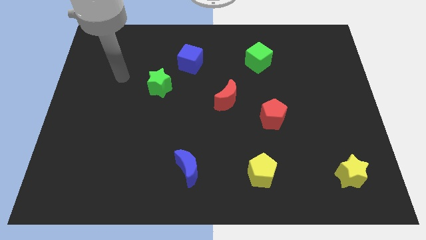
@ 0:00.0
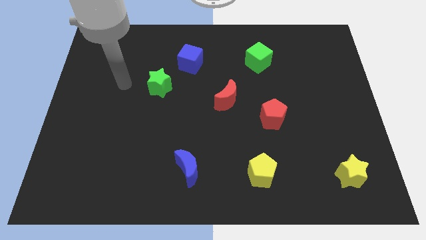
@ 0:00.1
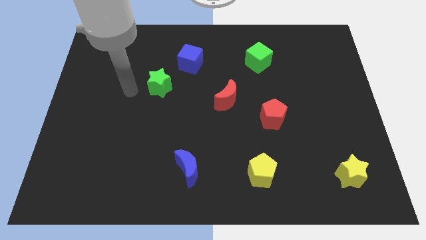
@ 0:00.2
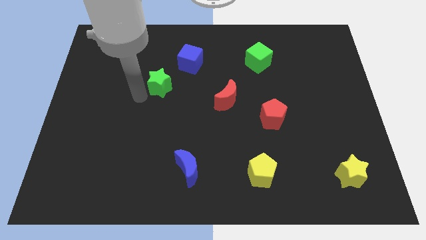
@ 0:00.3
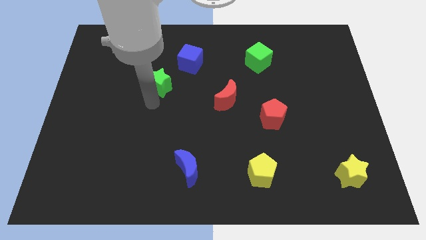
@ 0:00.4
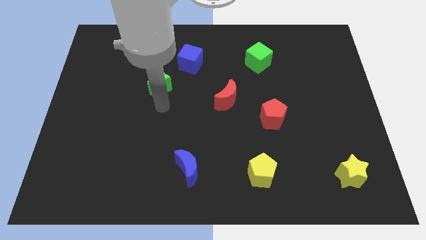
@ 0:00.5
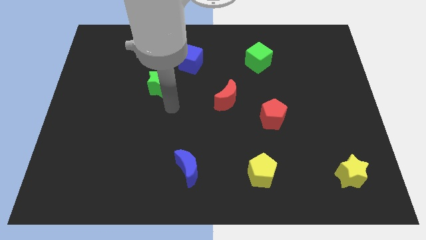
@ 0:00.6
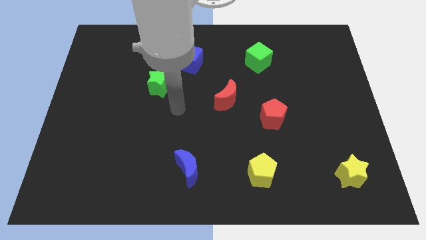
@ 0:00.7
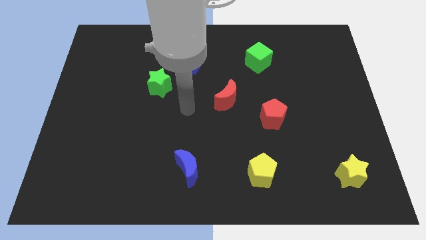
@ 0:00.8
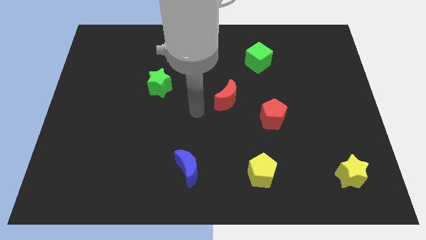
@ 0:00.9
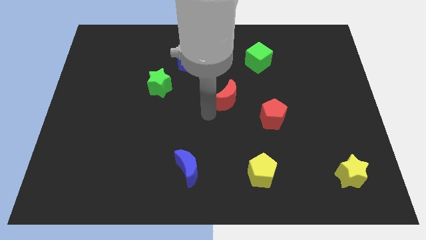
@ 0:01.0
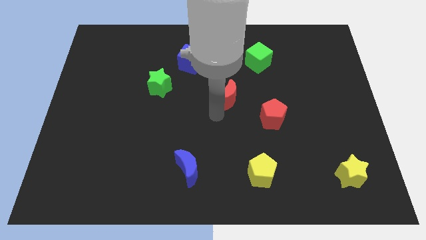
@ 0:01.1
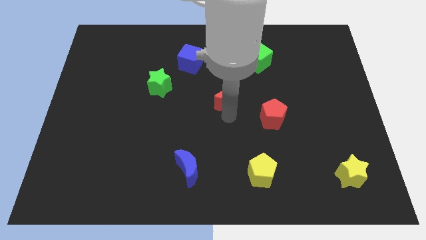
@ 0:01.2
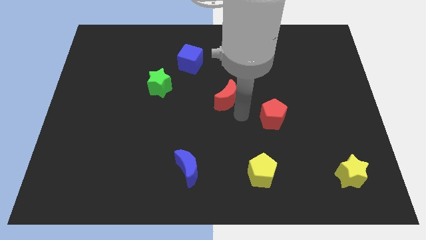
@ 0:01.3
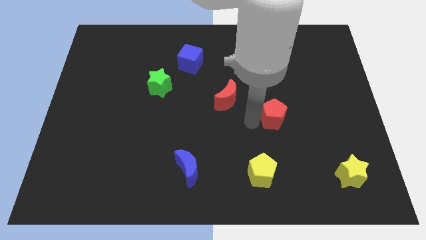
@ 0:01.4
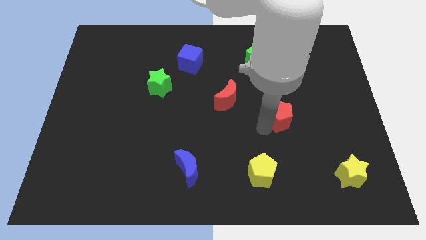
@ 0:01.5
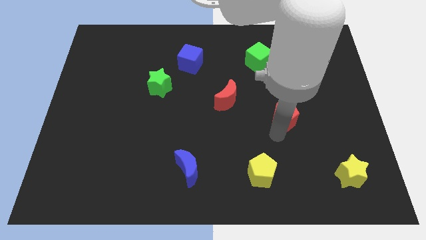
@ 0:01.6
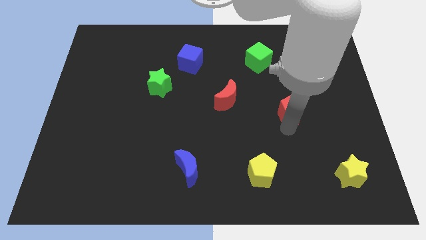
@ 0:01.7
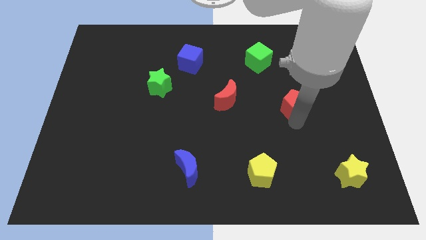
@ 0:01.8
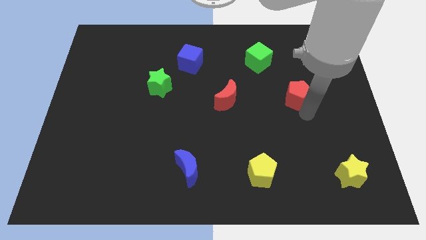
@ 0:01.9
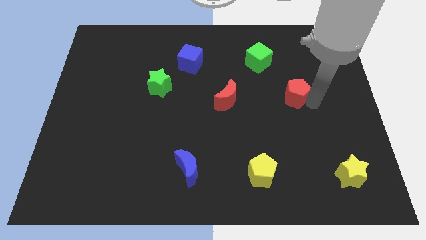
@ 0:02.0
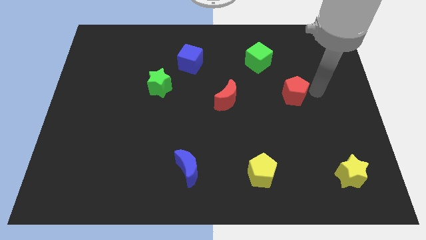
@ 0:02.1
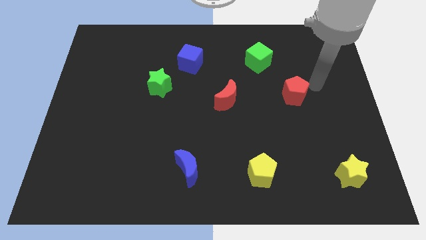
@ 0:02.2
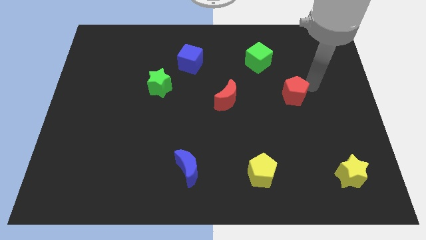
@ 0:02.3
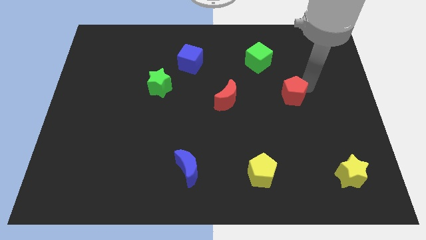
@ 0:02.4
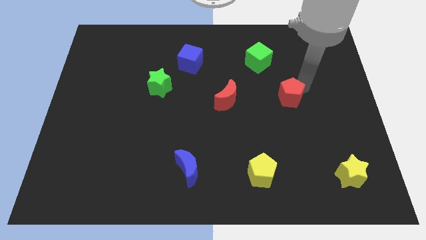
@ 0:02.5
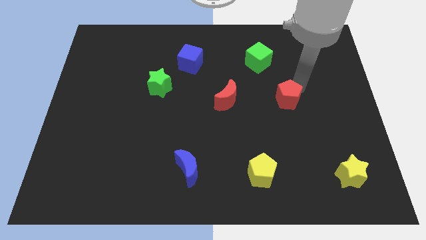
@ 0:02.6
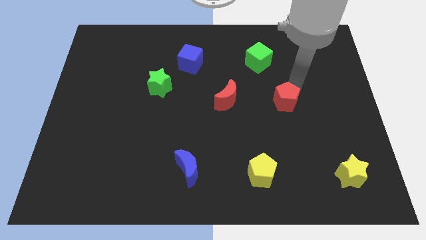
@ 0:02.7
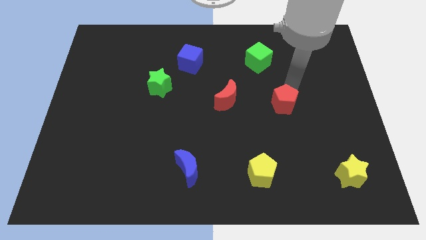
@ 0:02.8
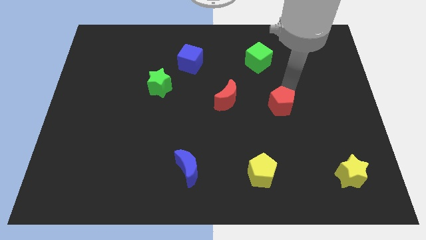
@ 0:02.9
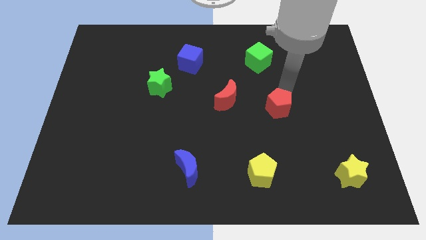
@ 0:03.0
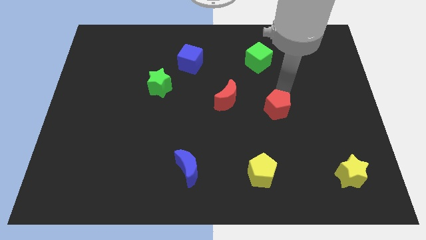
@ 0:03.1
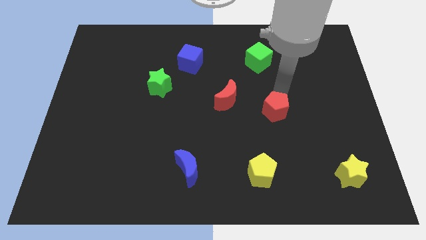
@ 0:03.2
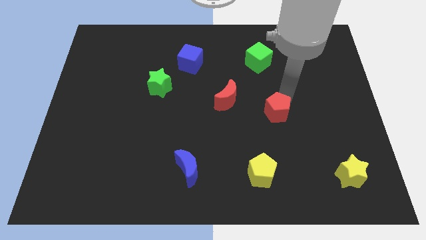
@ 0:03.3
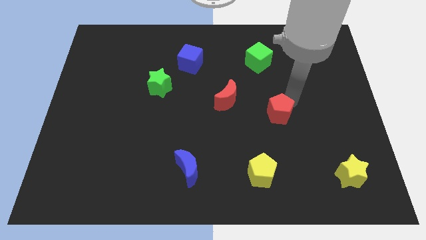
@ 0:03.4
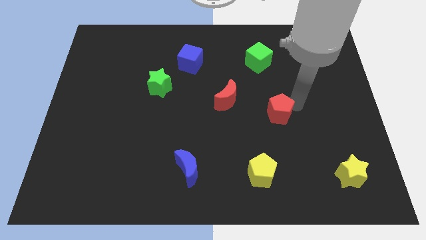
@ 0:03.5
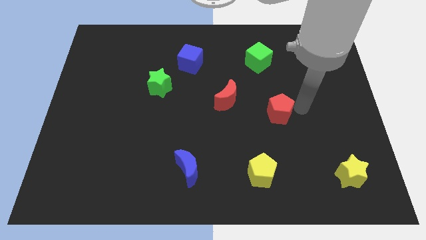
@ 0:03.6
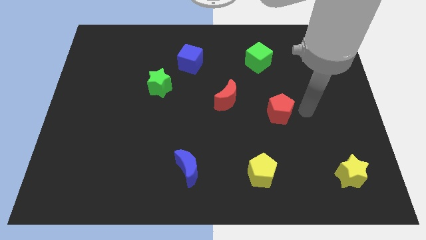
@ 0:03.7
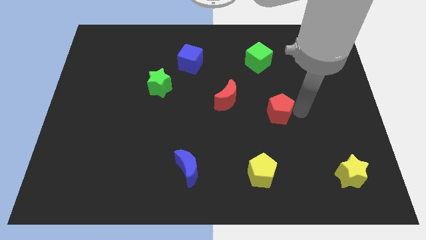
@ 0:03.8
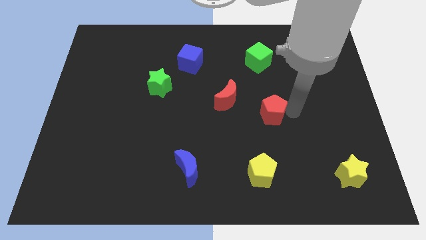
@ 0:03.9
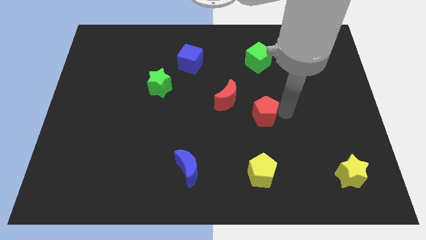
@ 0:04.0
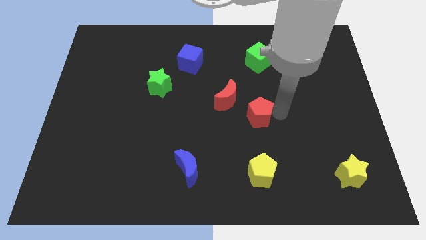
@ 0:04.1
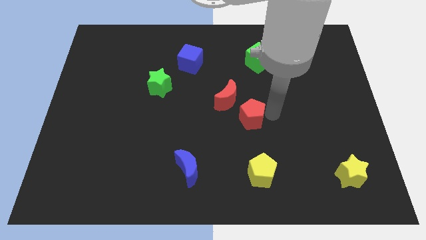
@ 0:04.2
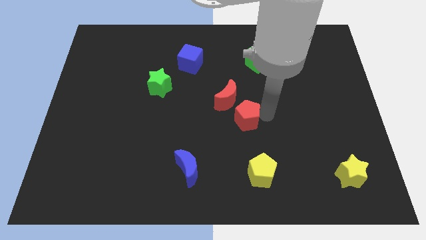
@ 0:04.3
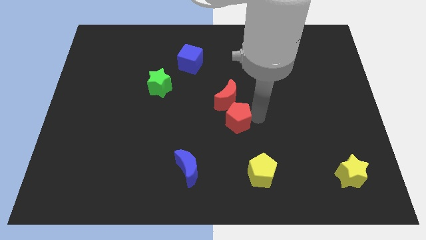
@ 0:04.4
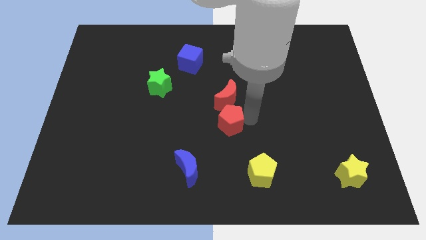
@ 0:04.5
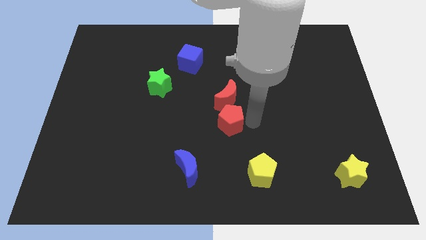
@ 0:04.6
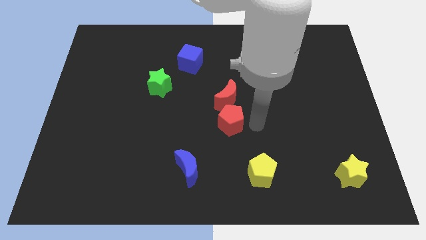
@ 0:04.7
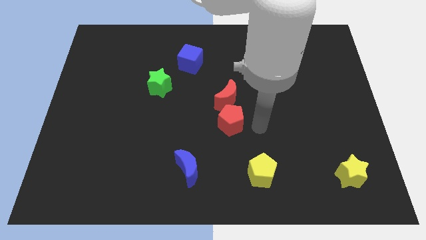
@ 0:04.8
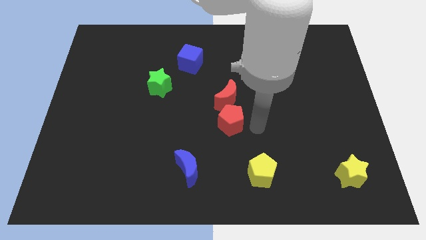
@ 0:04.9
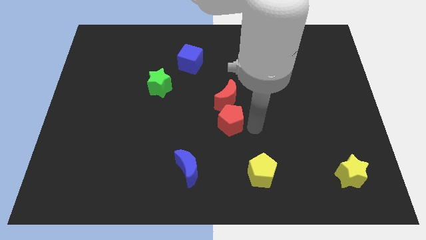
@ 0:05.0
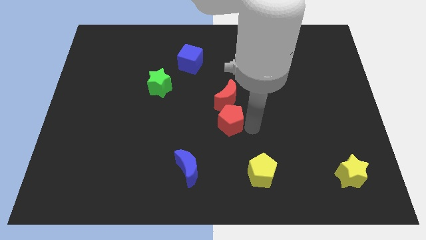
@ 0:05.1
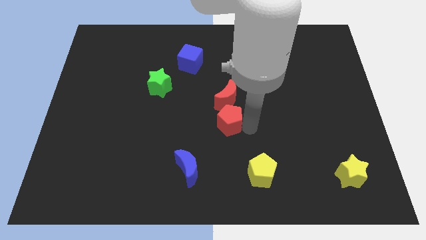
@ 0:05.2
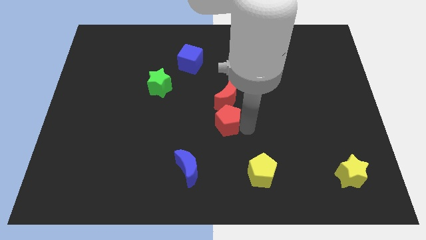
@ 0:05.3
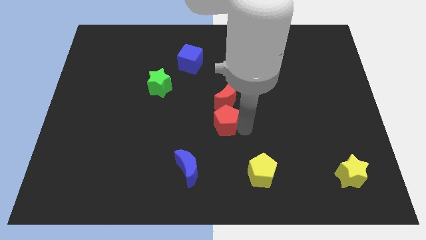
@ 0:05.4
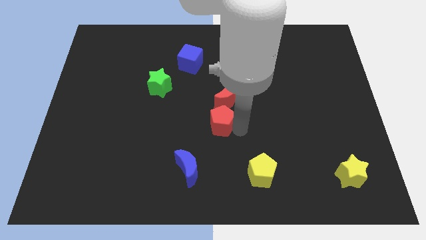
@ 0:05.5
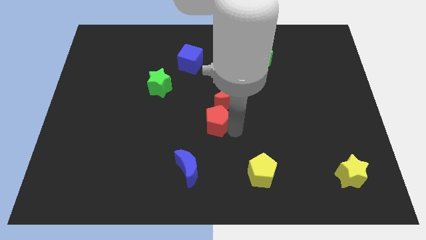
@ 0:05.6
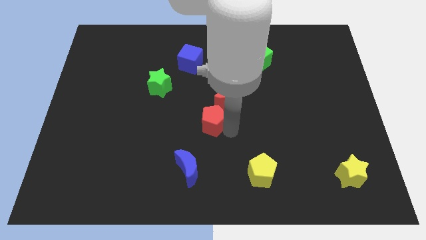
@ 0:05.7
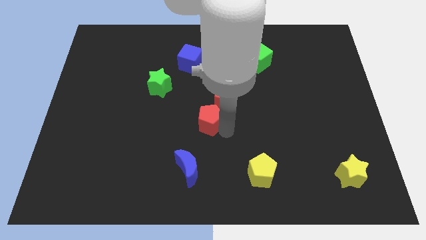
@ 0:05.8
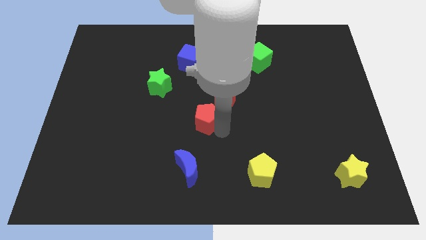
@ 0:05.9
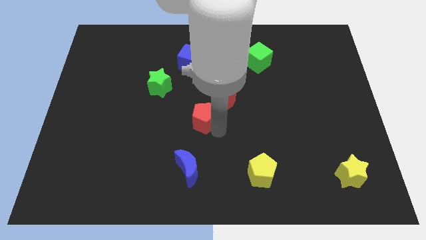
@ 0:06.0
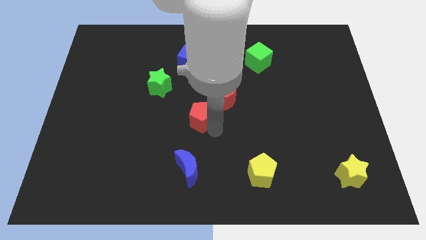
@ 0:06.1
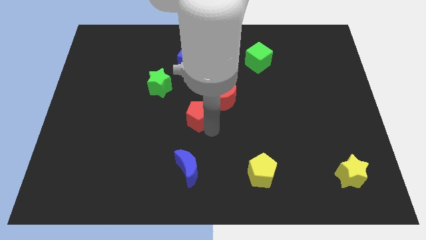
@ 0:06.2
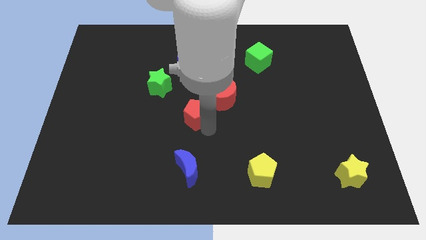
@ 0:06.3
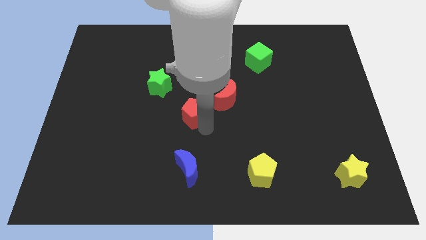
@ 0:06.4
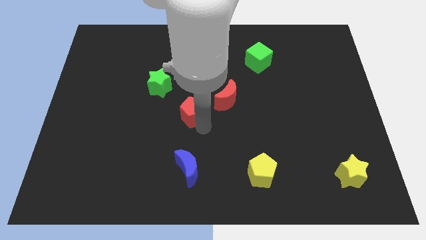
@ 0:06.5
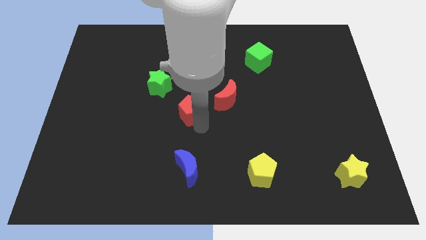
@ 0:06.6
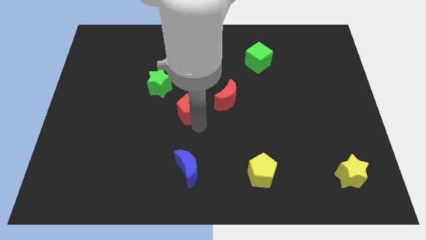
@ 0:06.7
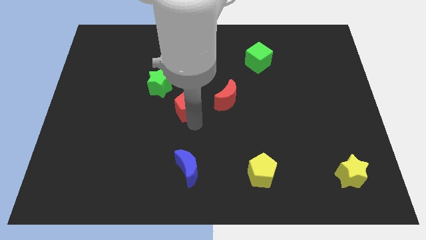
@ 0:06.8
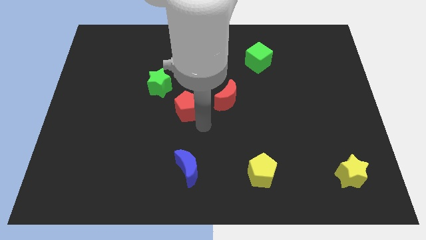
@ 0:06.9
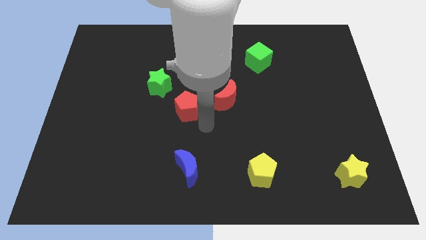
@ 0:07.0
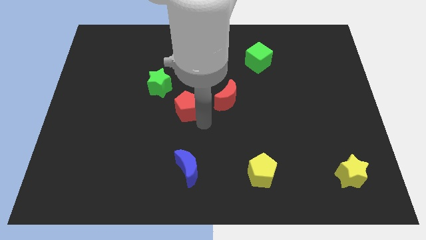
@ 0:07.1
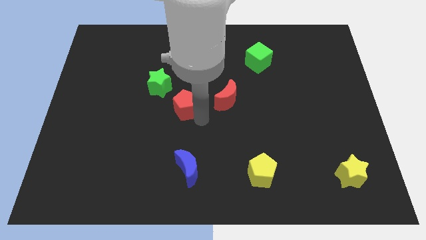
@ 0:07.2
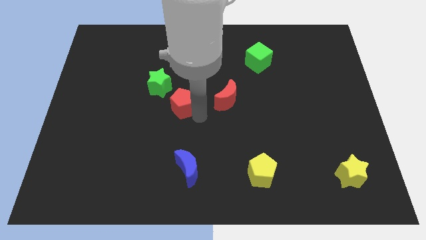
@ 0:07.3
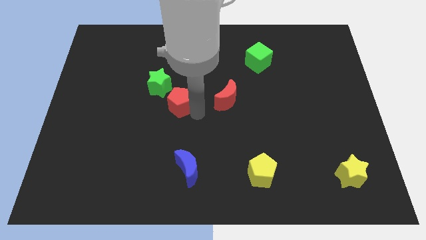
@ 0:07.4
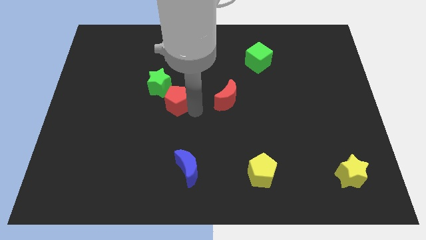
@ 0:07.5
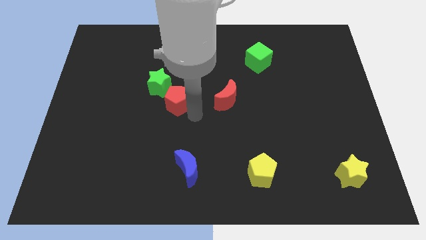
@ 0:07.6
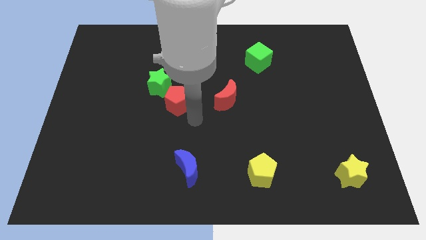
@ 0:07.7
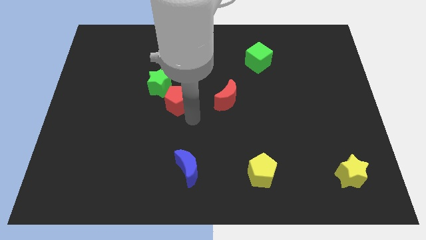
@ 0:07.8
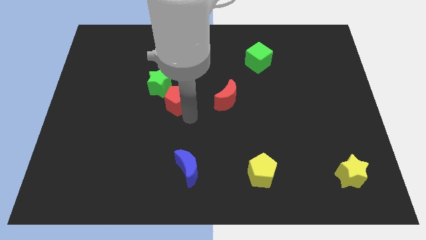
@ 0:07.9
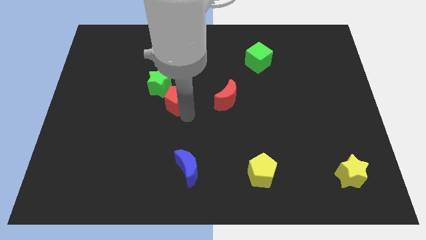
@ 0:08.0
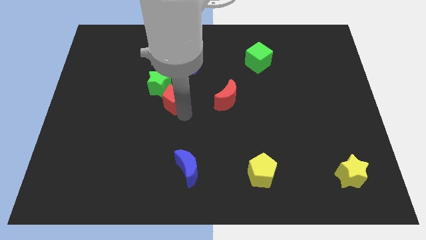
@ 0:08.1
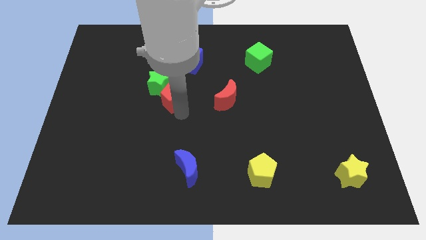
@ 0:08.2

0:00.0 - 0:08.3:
move the red pentagon towards the green star
